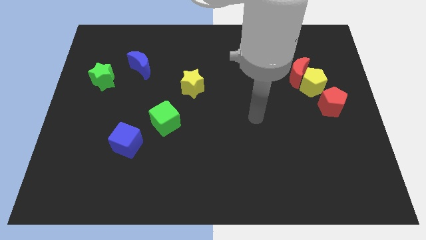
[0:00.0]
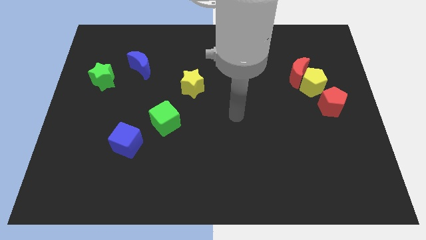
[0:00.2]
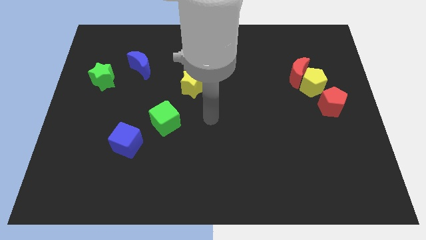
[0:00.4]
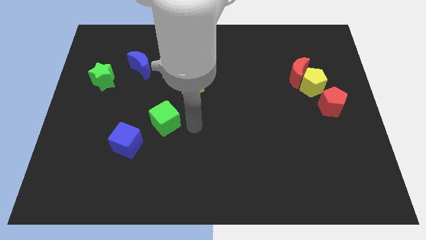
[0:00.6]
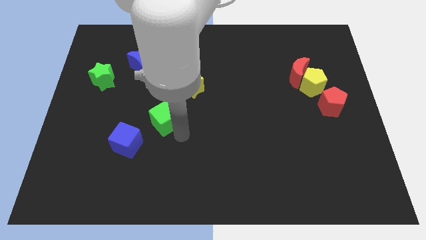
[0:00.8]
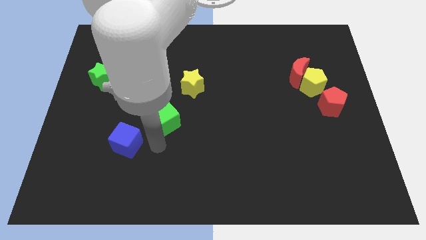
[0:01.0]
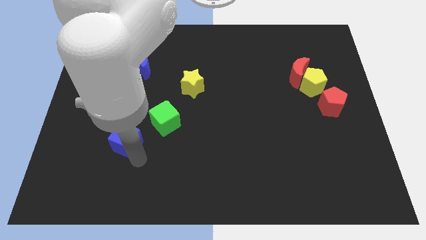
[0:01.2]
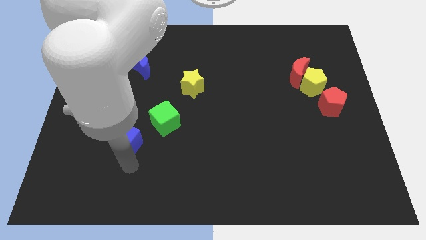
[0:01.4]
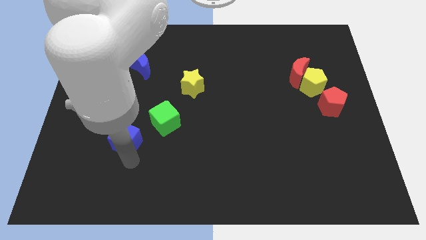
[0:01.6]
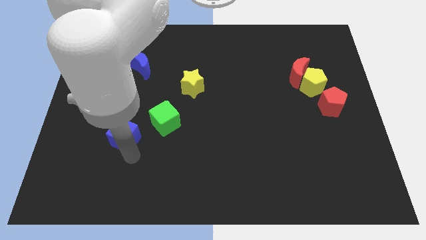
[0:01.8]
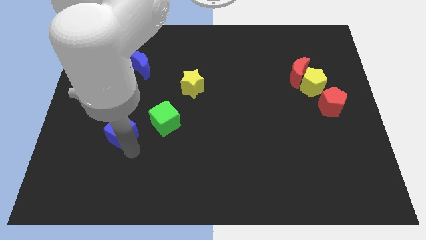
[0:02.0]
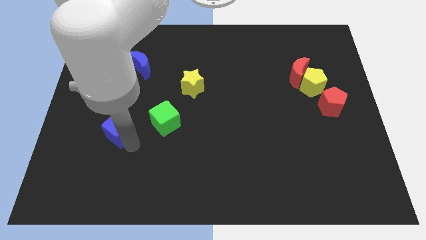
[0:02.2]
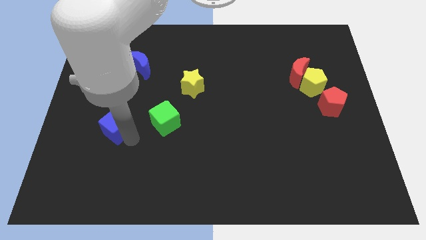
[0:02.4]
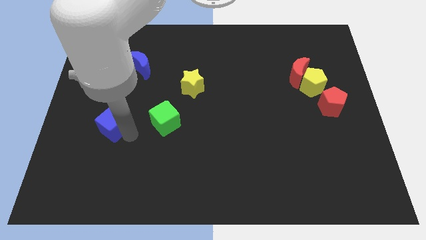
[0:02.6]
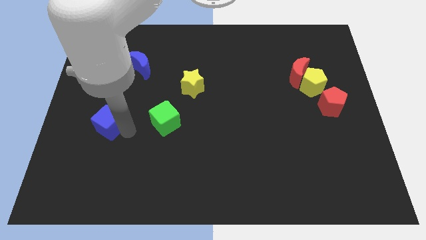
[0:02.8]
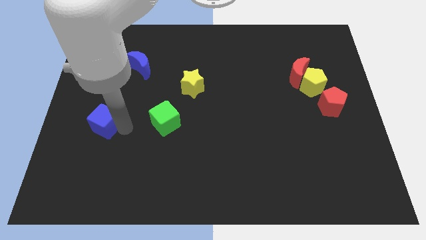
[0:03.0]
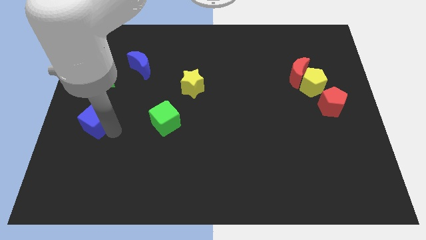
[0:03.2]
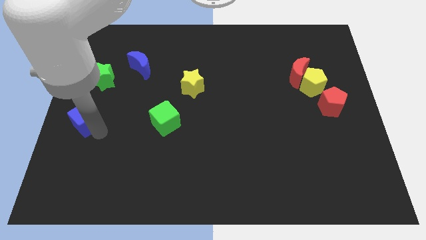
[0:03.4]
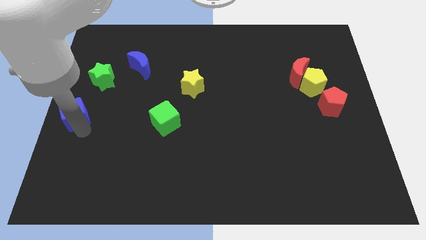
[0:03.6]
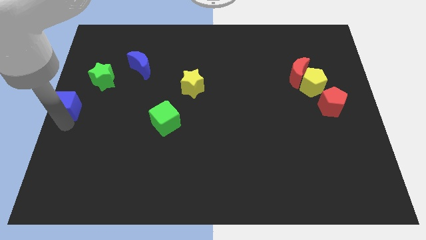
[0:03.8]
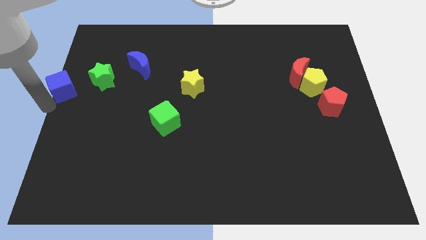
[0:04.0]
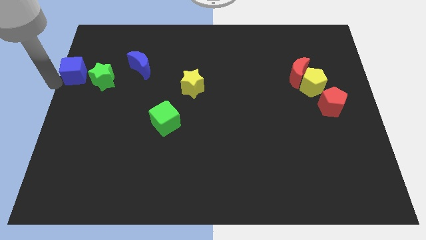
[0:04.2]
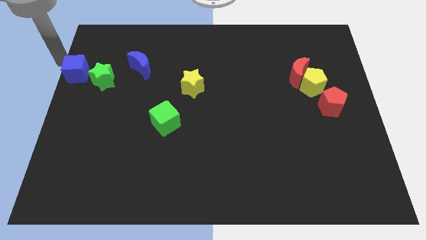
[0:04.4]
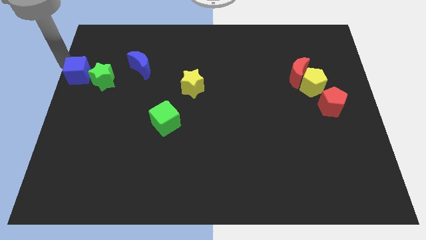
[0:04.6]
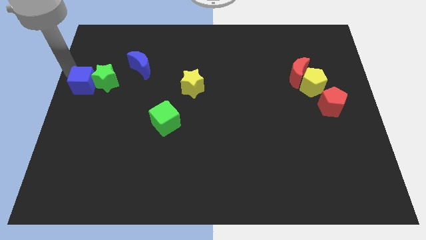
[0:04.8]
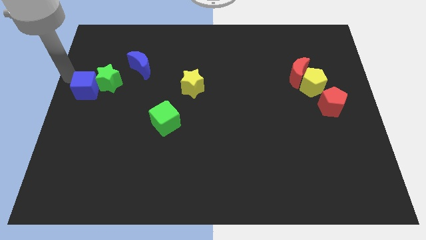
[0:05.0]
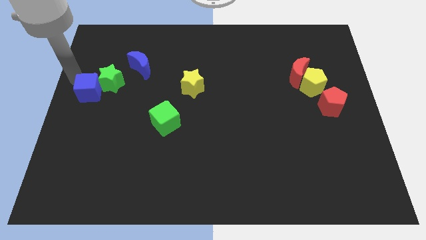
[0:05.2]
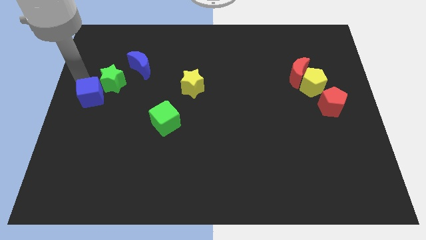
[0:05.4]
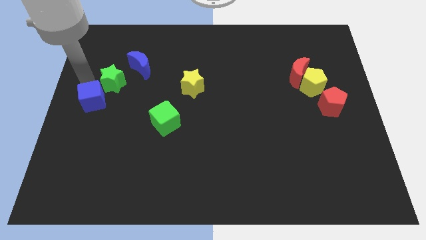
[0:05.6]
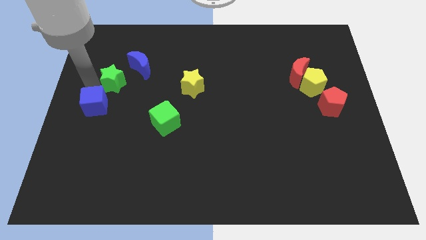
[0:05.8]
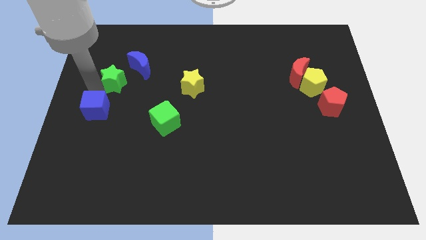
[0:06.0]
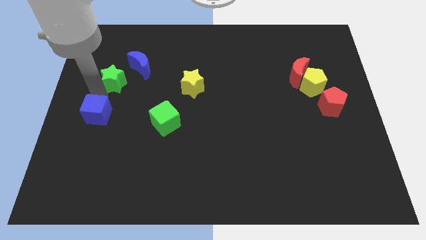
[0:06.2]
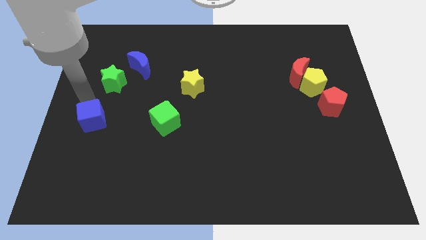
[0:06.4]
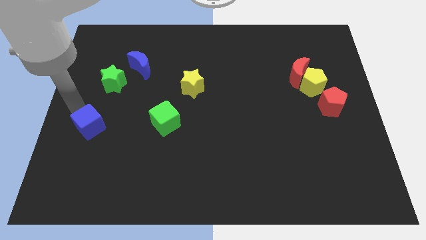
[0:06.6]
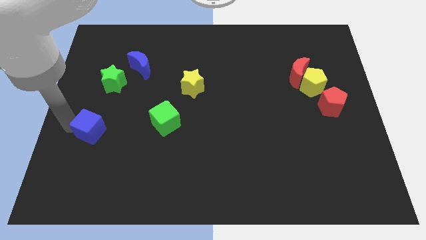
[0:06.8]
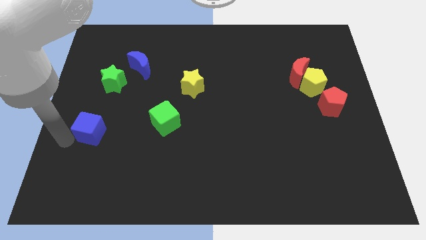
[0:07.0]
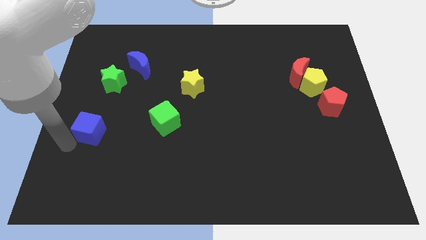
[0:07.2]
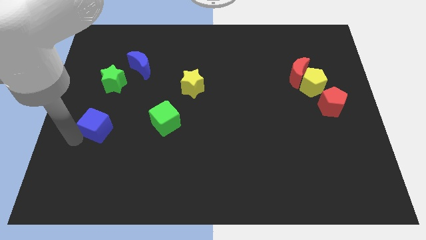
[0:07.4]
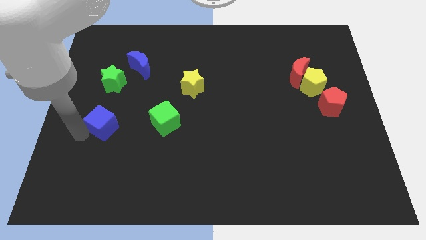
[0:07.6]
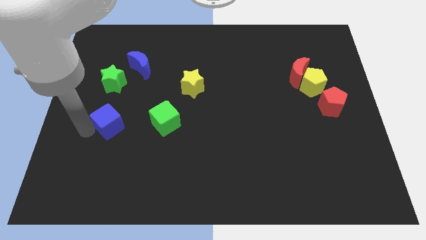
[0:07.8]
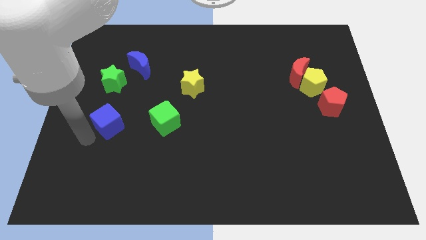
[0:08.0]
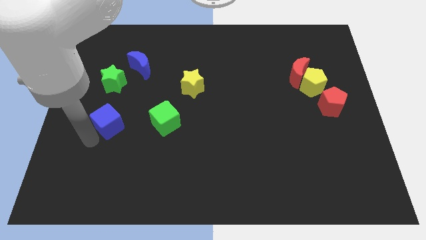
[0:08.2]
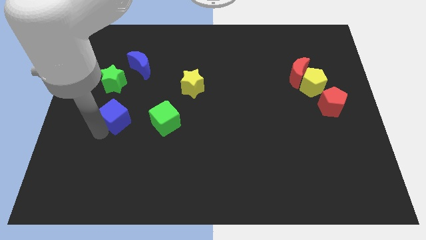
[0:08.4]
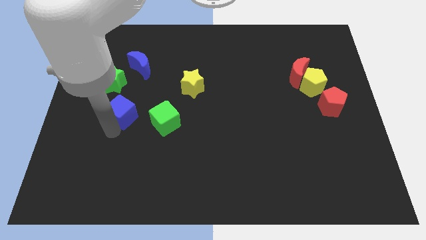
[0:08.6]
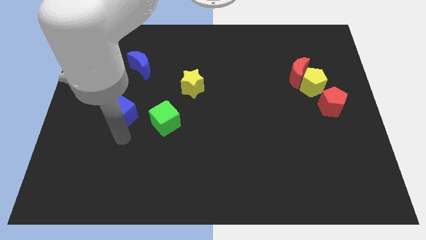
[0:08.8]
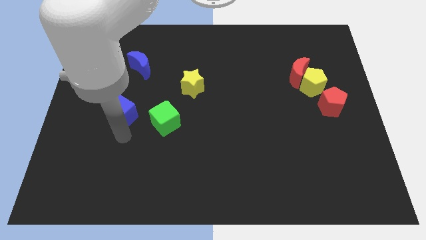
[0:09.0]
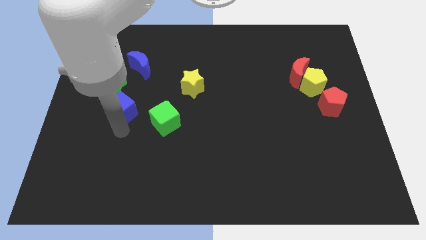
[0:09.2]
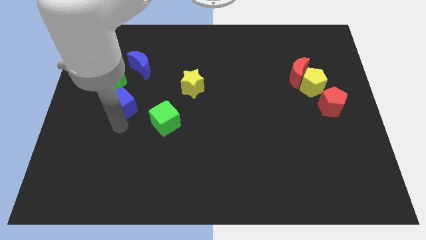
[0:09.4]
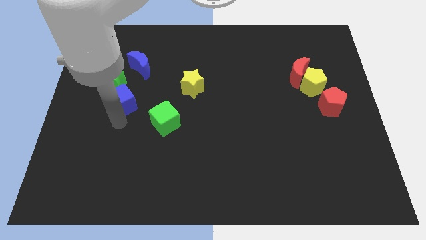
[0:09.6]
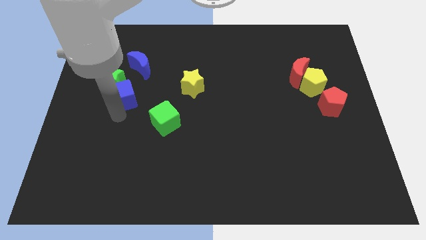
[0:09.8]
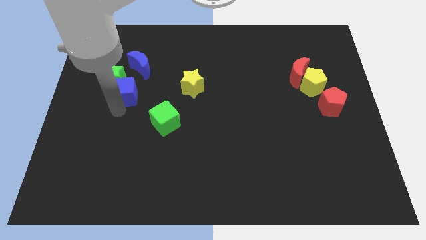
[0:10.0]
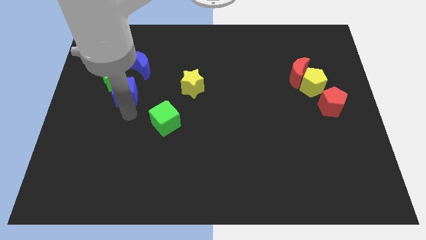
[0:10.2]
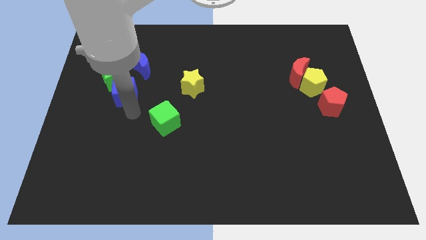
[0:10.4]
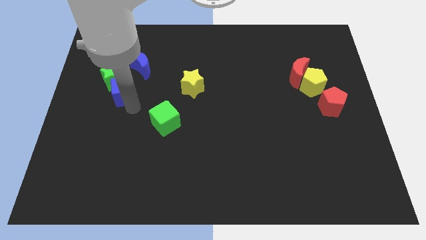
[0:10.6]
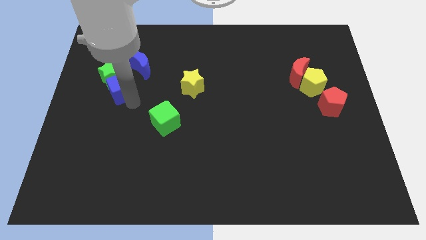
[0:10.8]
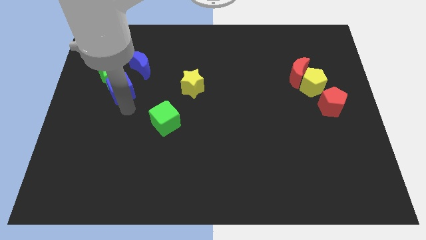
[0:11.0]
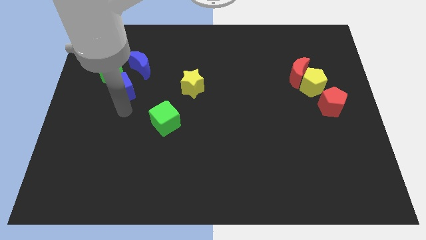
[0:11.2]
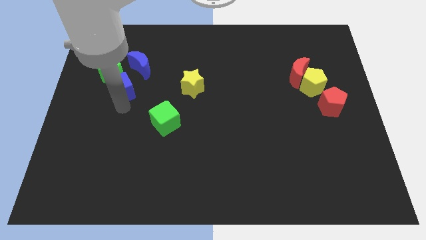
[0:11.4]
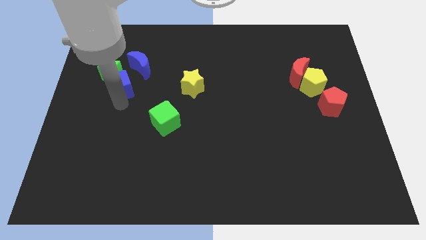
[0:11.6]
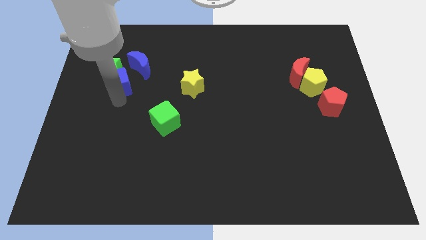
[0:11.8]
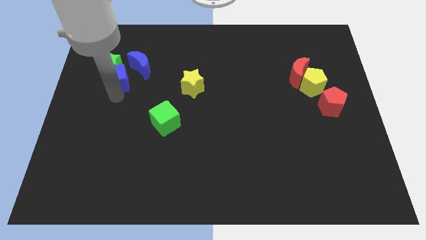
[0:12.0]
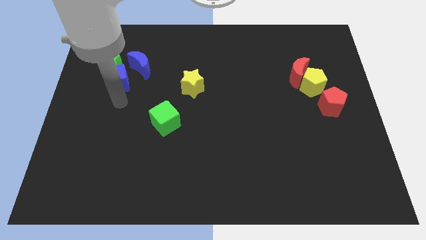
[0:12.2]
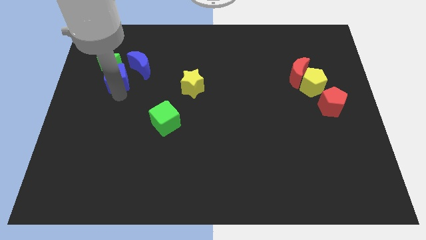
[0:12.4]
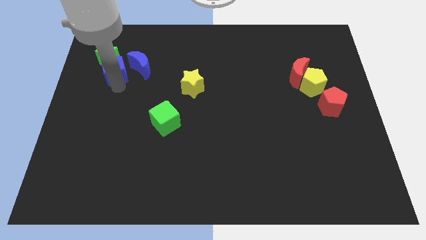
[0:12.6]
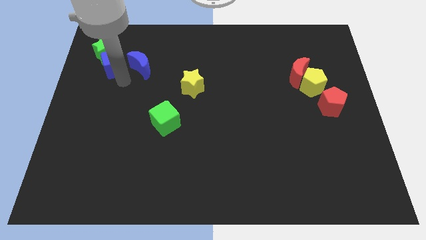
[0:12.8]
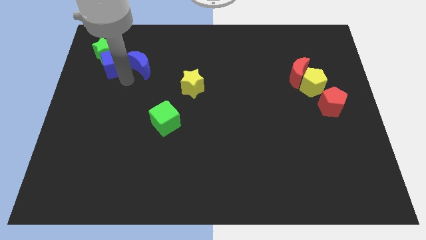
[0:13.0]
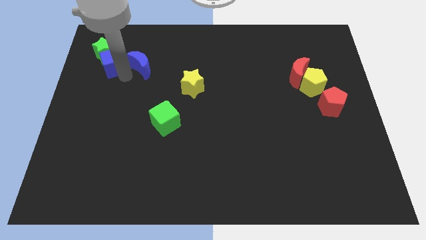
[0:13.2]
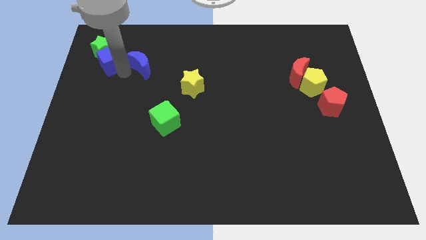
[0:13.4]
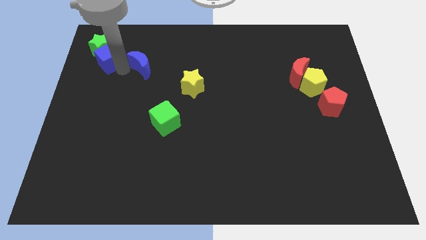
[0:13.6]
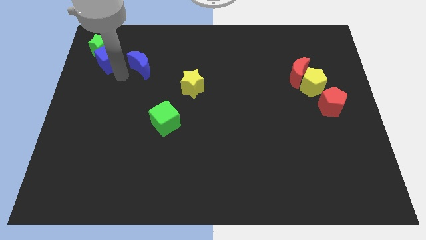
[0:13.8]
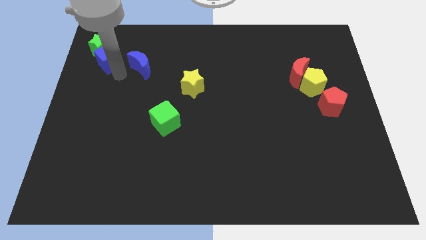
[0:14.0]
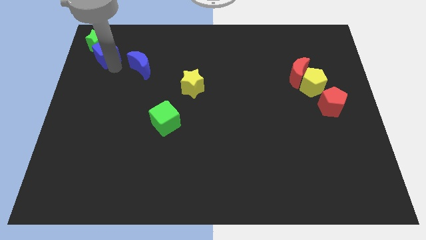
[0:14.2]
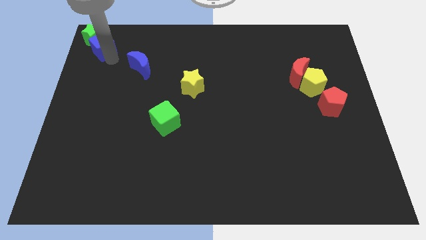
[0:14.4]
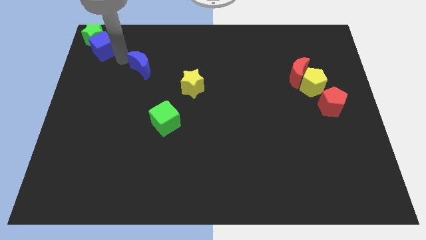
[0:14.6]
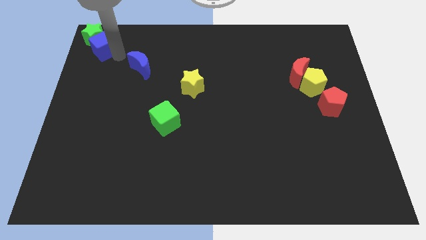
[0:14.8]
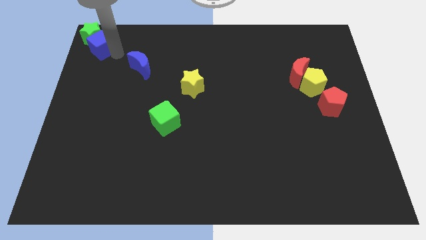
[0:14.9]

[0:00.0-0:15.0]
put the blue cube to the top left corner
